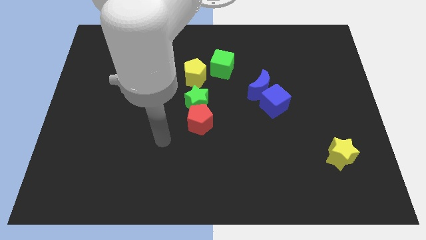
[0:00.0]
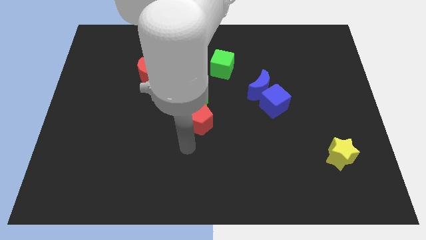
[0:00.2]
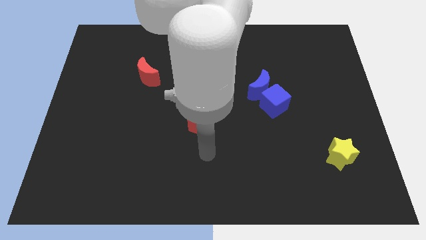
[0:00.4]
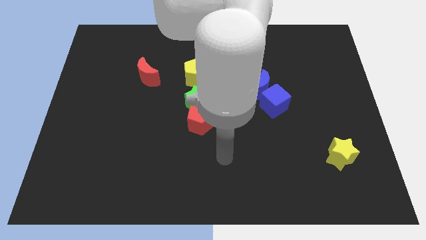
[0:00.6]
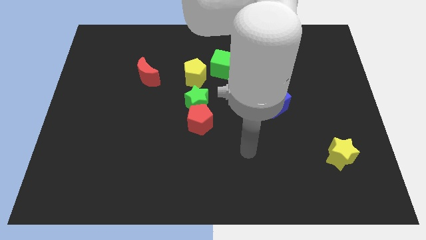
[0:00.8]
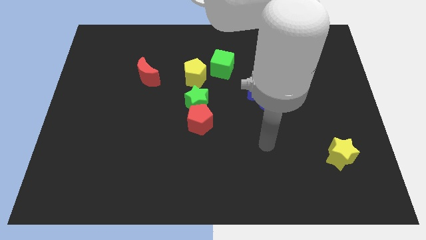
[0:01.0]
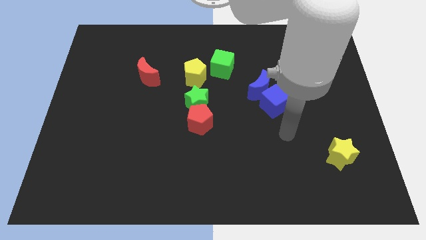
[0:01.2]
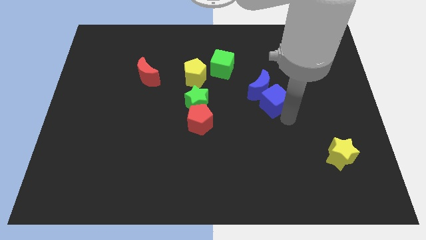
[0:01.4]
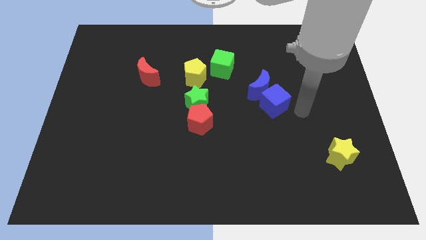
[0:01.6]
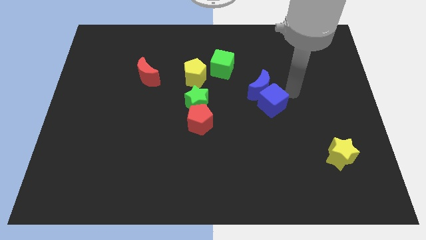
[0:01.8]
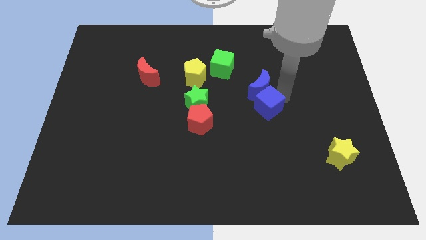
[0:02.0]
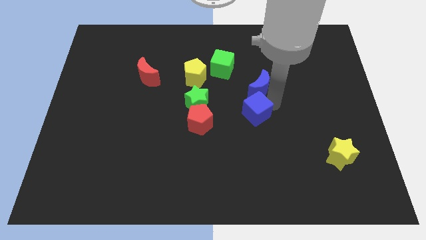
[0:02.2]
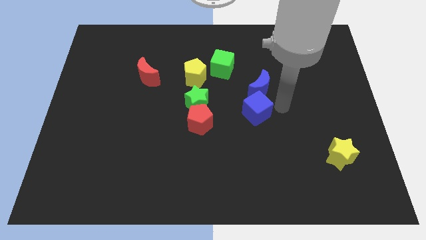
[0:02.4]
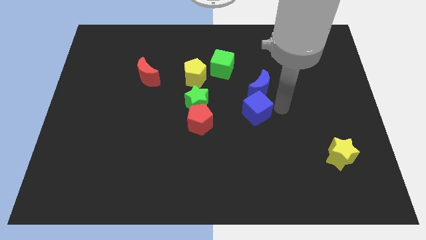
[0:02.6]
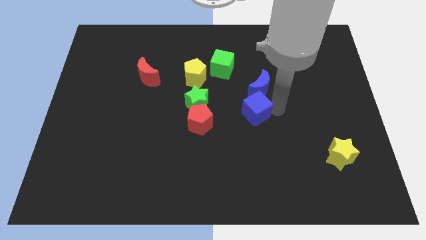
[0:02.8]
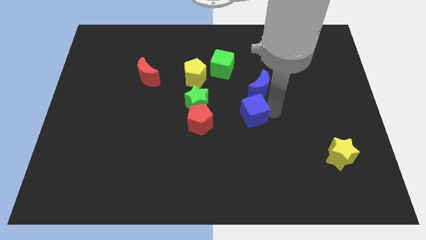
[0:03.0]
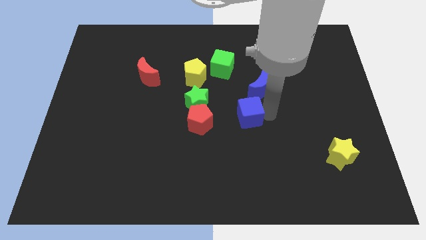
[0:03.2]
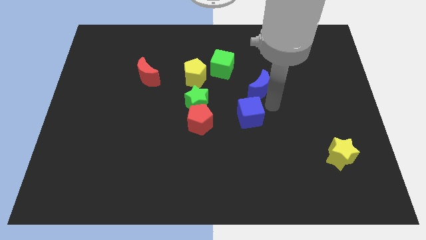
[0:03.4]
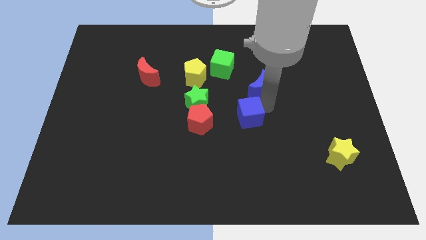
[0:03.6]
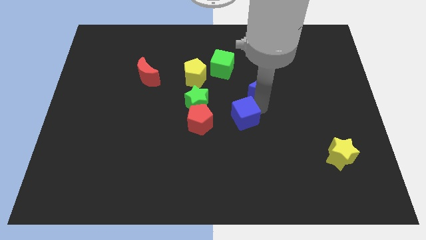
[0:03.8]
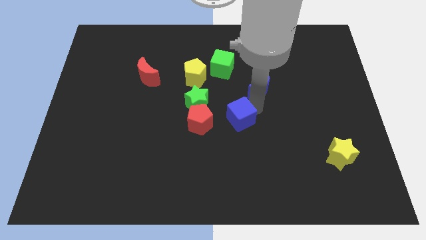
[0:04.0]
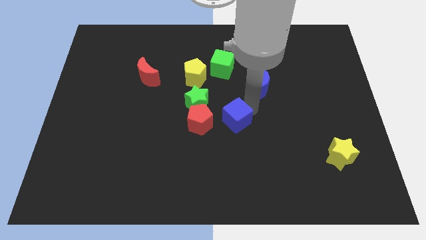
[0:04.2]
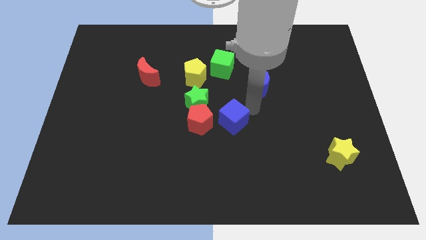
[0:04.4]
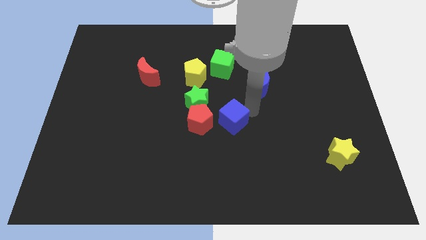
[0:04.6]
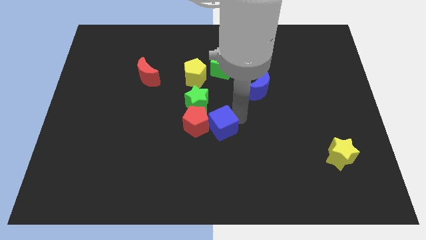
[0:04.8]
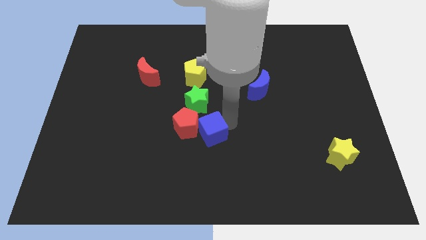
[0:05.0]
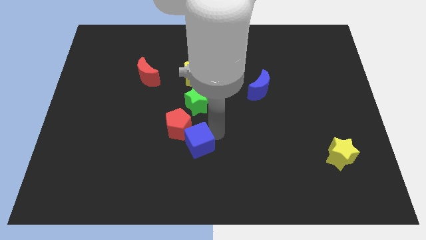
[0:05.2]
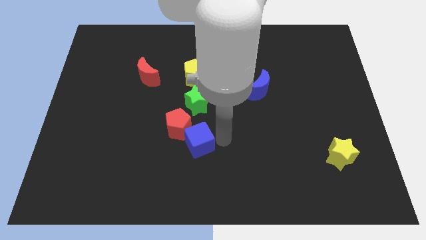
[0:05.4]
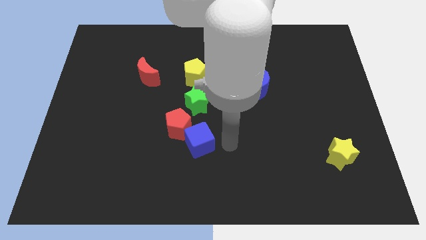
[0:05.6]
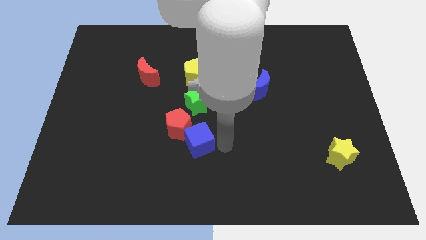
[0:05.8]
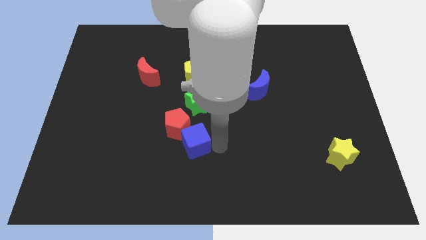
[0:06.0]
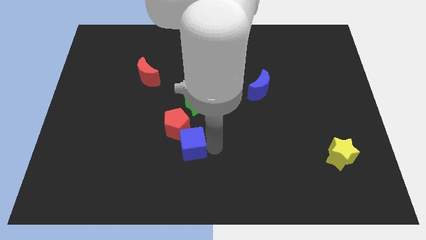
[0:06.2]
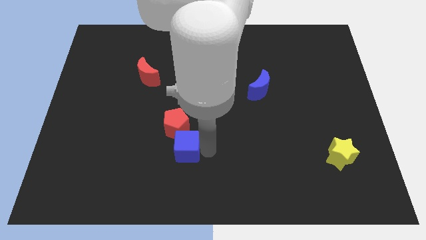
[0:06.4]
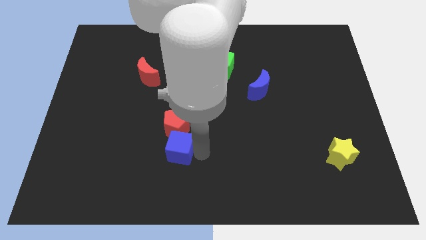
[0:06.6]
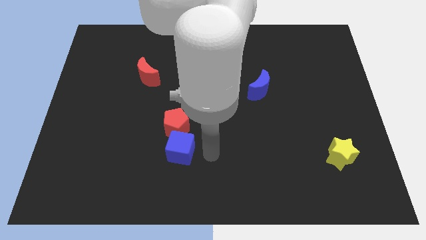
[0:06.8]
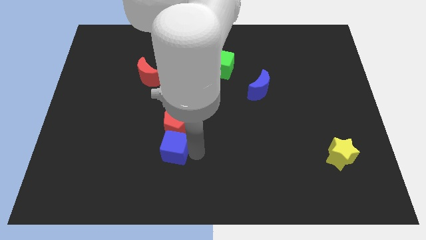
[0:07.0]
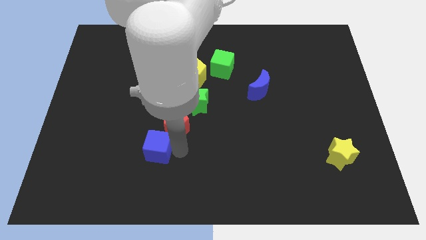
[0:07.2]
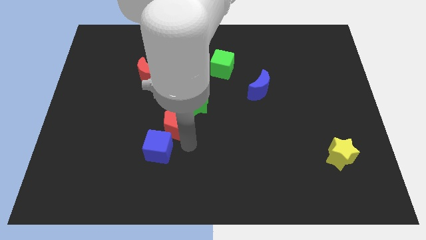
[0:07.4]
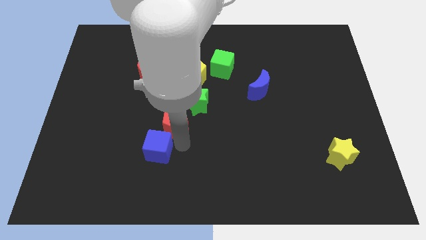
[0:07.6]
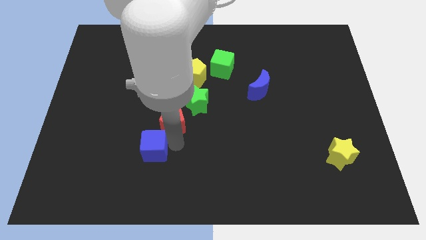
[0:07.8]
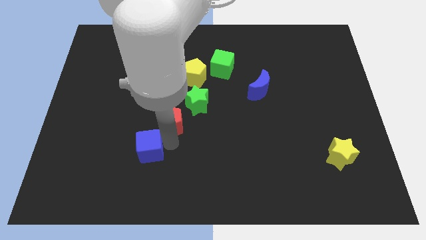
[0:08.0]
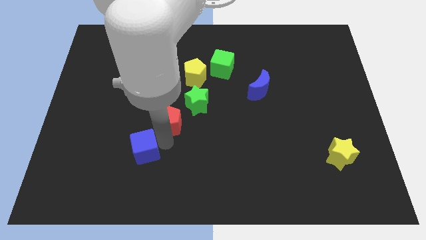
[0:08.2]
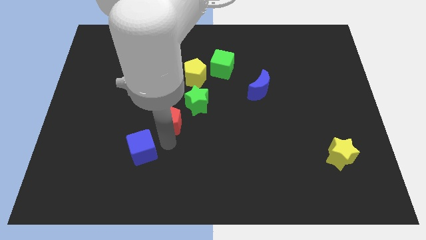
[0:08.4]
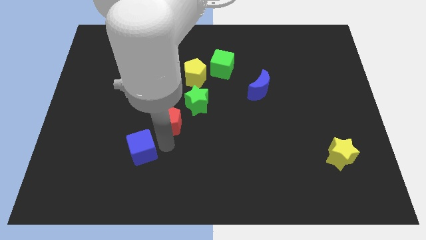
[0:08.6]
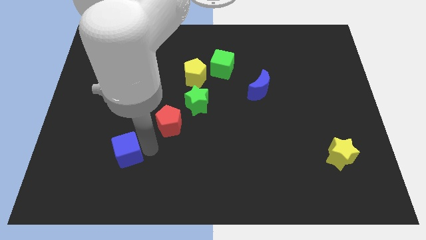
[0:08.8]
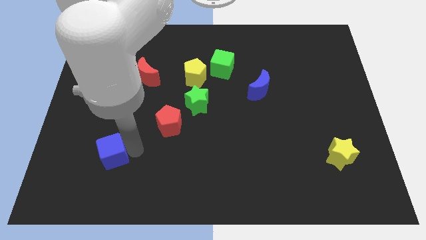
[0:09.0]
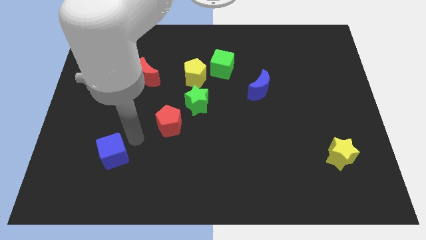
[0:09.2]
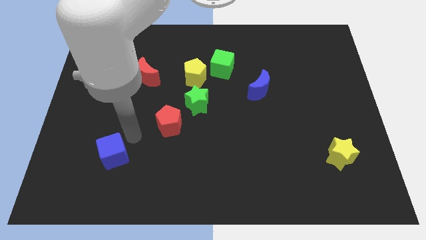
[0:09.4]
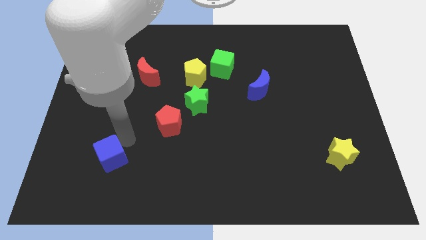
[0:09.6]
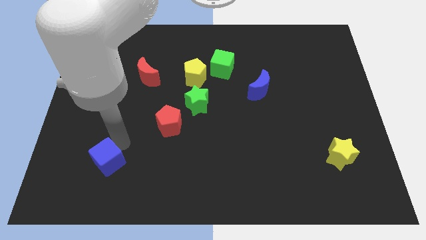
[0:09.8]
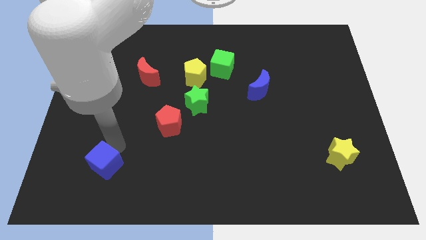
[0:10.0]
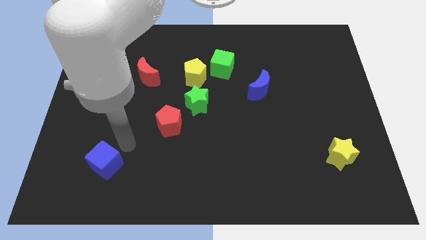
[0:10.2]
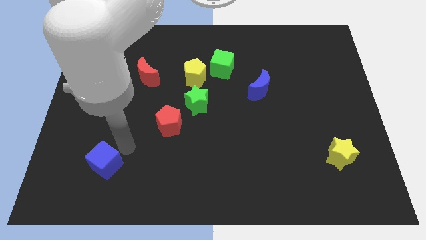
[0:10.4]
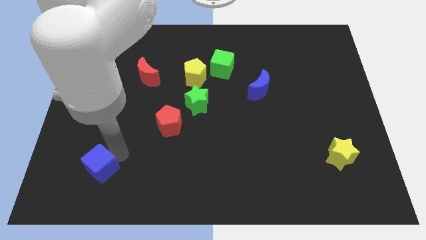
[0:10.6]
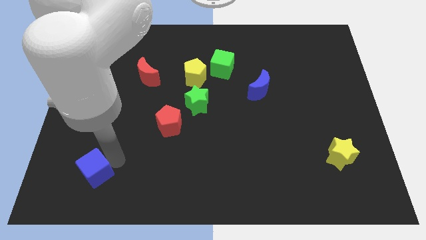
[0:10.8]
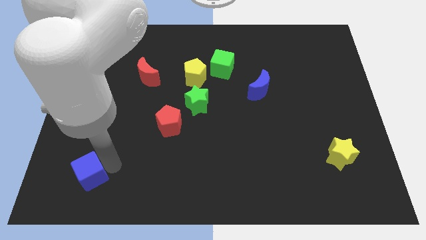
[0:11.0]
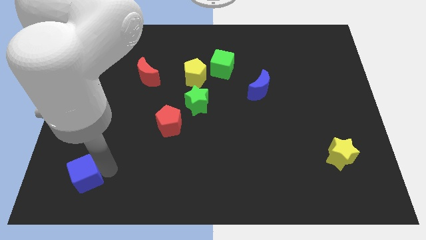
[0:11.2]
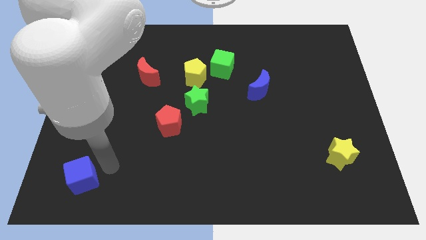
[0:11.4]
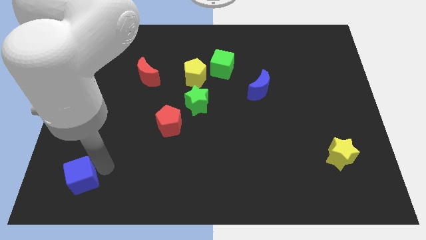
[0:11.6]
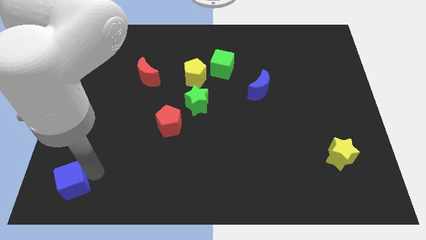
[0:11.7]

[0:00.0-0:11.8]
push the blue cube to the bottom left corner

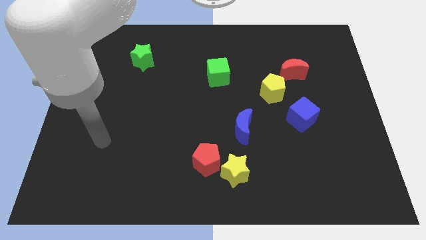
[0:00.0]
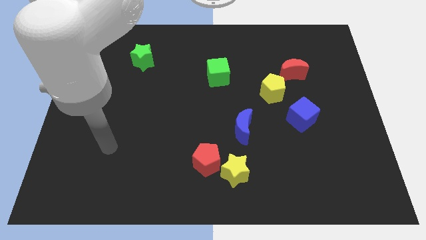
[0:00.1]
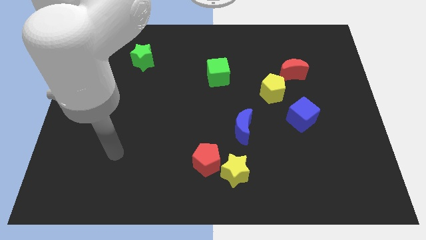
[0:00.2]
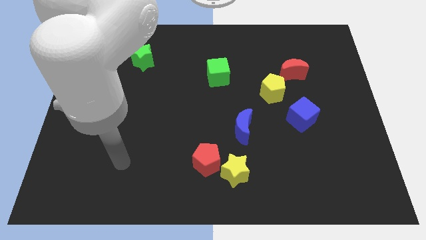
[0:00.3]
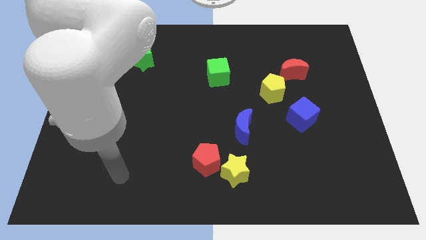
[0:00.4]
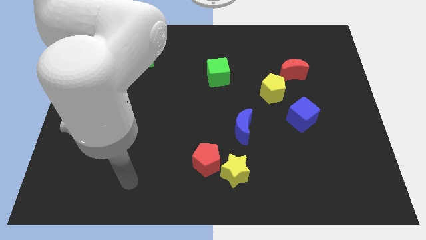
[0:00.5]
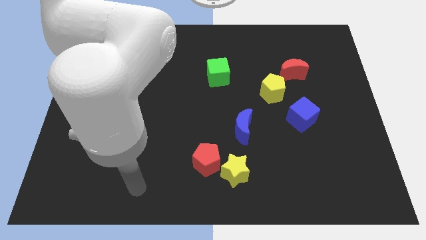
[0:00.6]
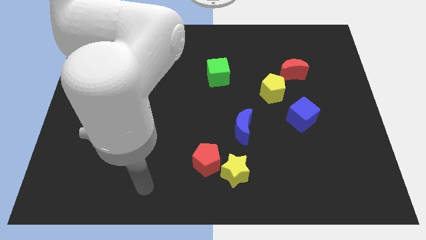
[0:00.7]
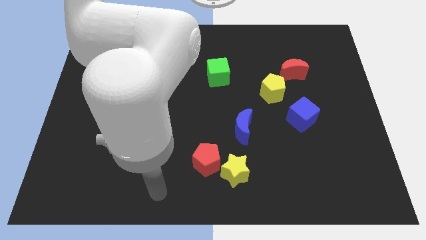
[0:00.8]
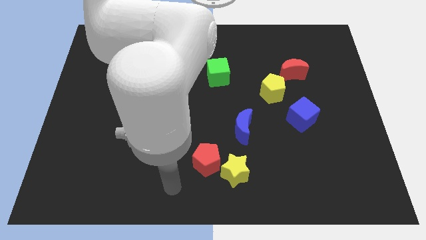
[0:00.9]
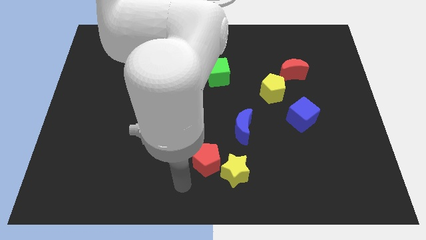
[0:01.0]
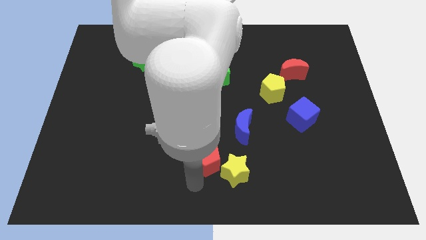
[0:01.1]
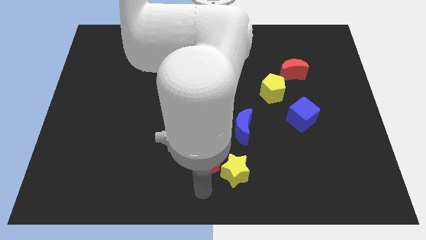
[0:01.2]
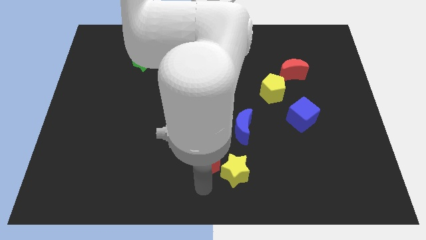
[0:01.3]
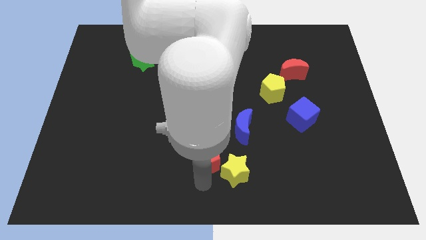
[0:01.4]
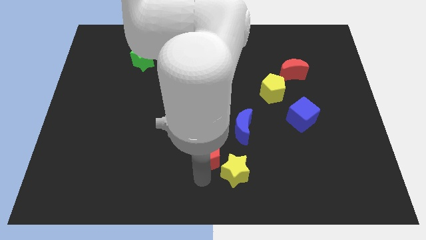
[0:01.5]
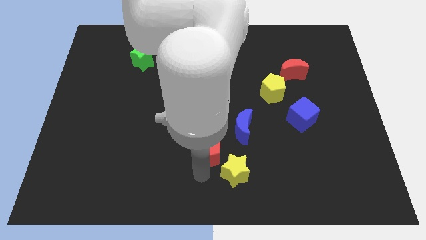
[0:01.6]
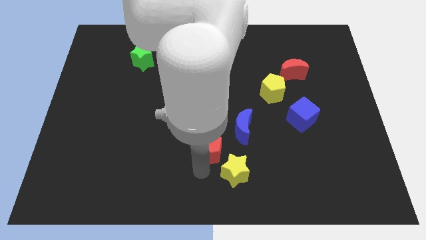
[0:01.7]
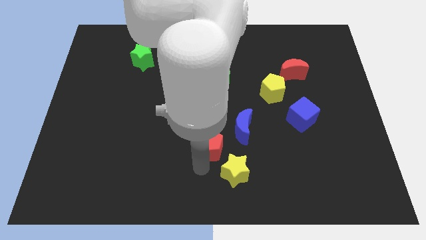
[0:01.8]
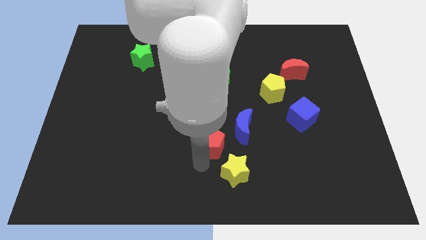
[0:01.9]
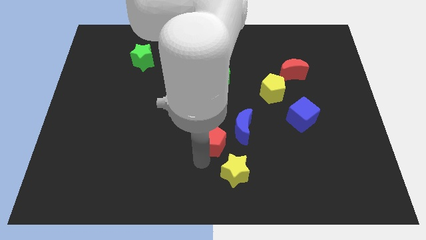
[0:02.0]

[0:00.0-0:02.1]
put the red pentagon to the middle
